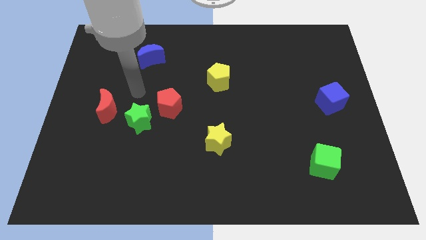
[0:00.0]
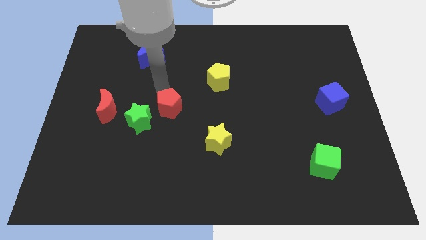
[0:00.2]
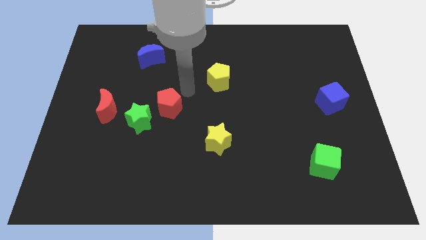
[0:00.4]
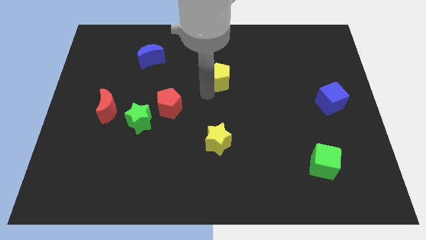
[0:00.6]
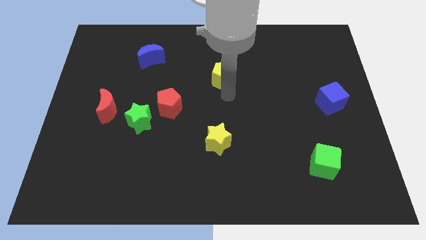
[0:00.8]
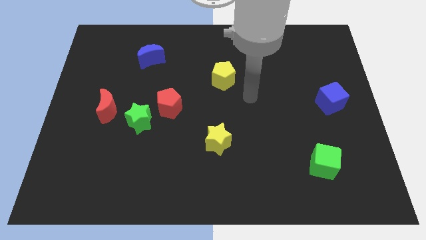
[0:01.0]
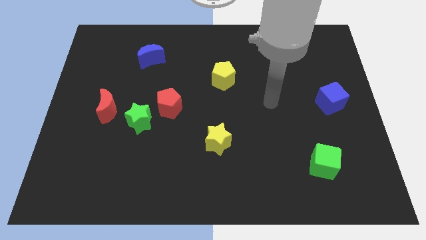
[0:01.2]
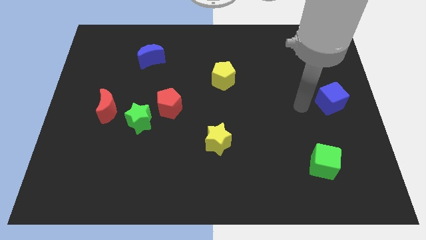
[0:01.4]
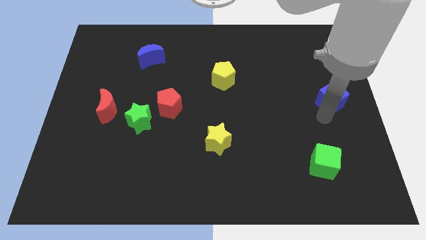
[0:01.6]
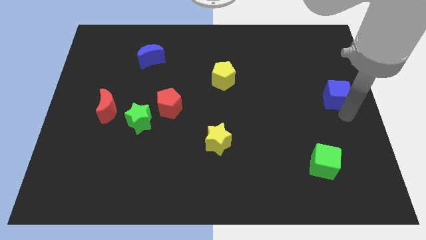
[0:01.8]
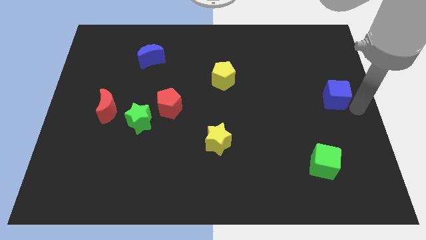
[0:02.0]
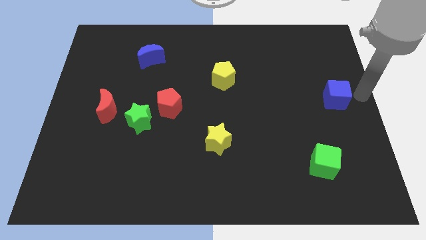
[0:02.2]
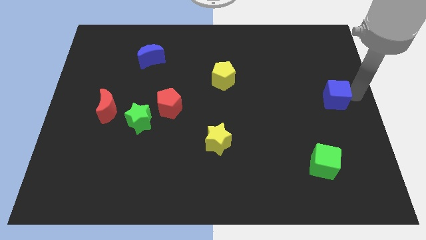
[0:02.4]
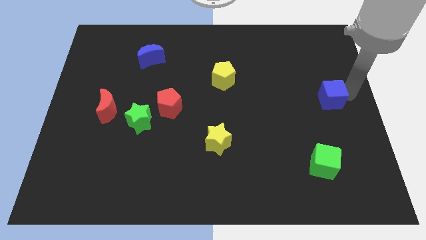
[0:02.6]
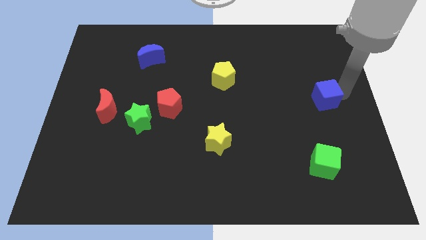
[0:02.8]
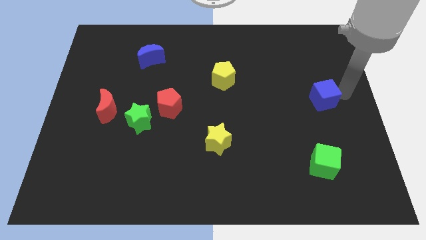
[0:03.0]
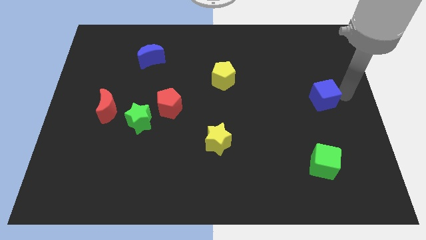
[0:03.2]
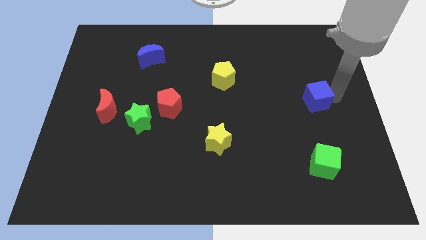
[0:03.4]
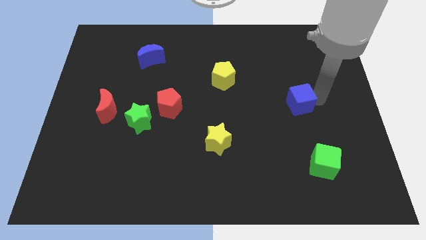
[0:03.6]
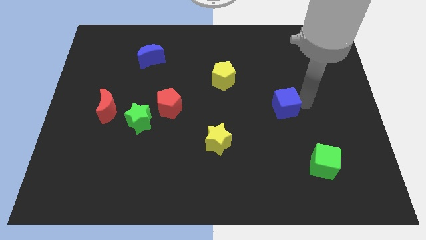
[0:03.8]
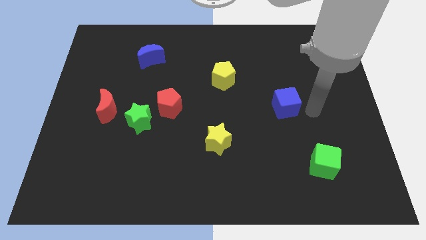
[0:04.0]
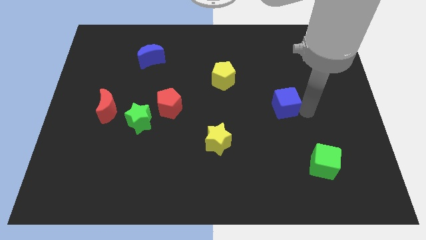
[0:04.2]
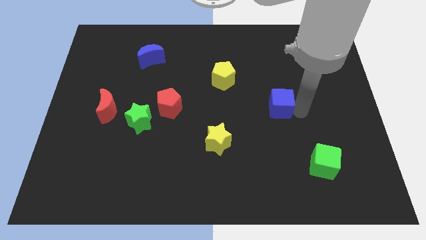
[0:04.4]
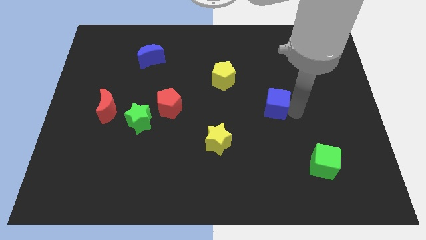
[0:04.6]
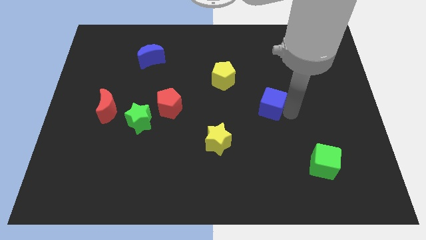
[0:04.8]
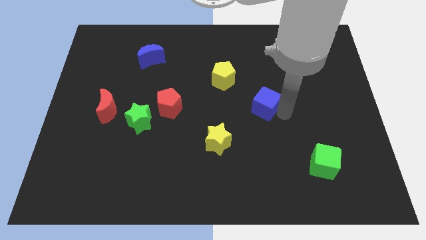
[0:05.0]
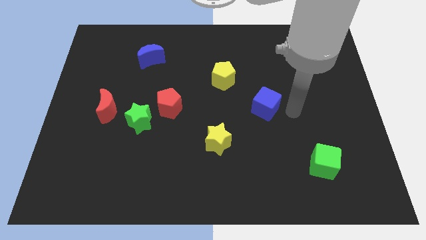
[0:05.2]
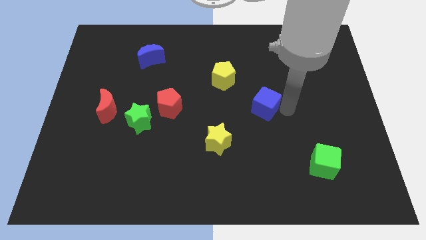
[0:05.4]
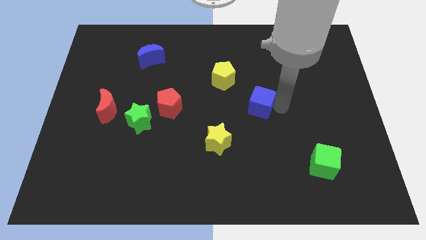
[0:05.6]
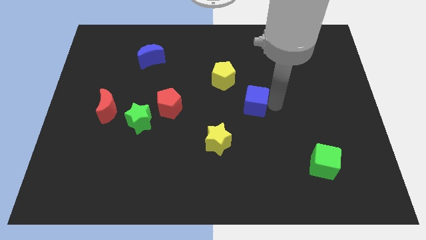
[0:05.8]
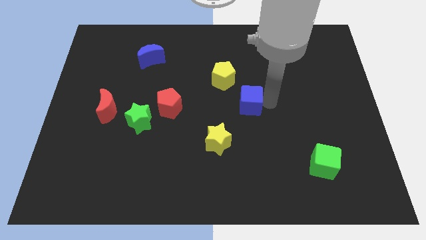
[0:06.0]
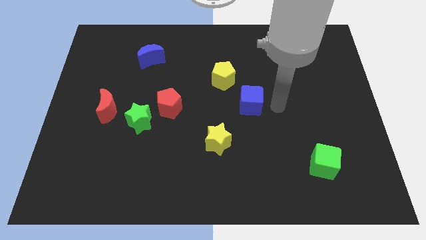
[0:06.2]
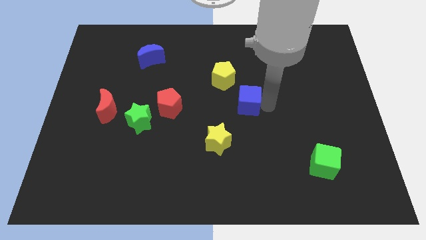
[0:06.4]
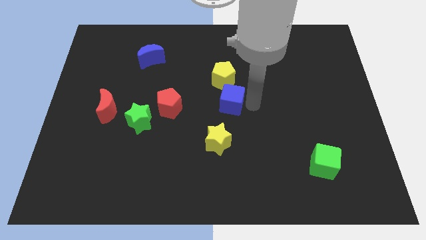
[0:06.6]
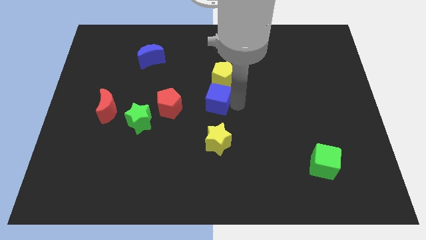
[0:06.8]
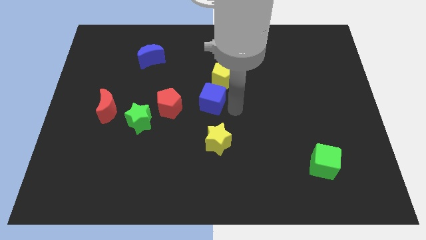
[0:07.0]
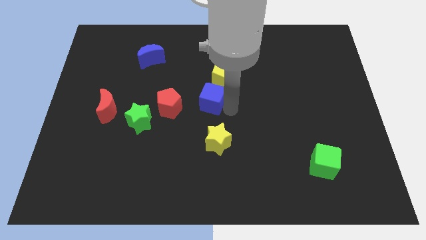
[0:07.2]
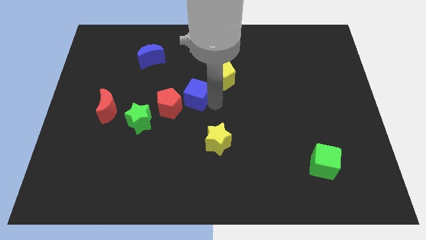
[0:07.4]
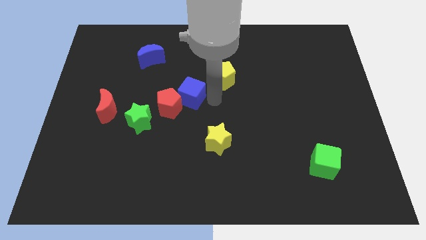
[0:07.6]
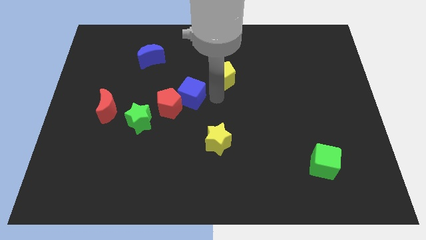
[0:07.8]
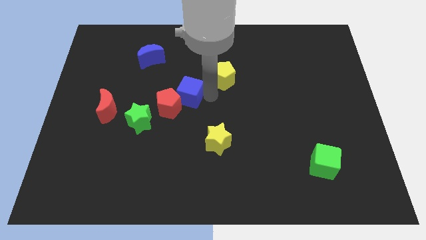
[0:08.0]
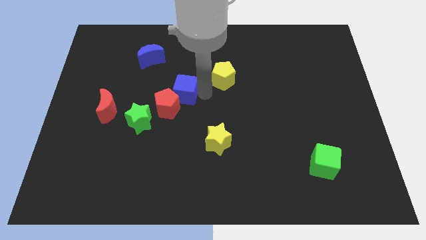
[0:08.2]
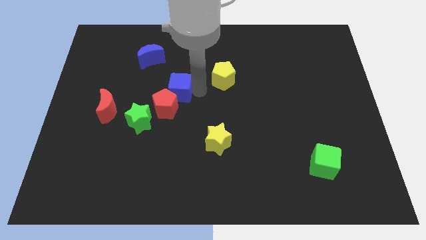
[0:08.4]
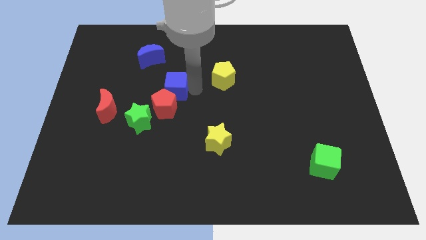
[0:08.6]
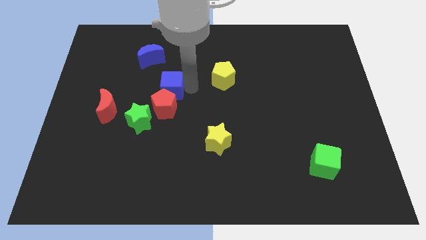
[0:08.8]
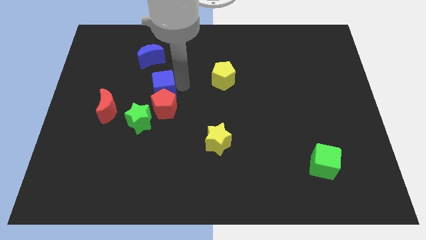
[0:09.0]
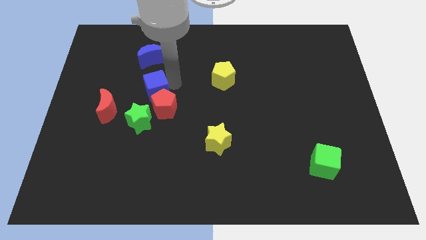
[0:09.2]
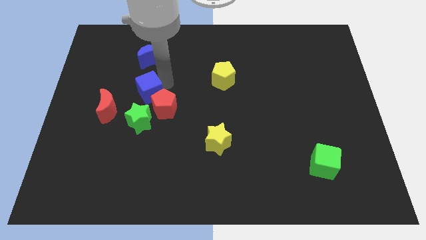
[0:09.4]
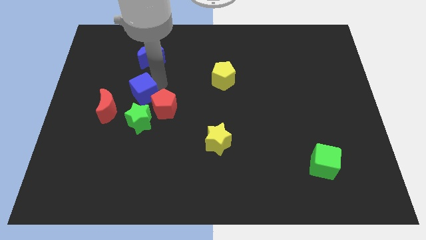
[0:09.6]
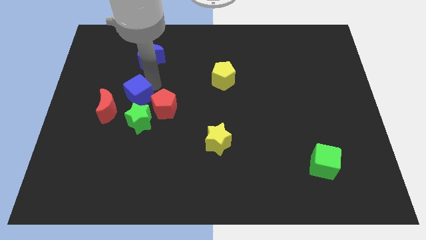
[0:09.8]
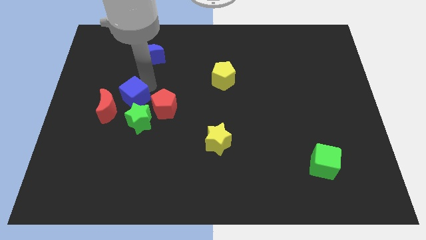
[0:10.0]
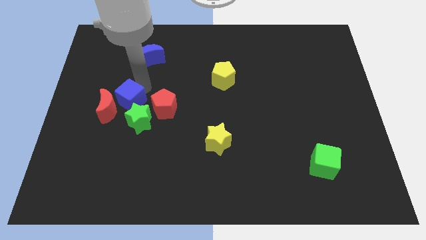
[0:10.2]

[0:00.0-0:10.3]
slide the blue cube close to the red moon

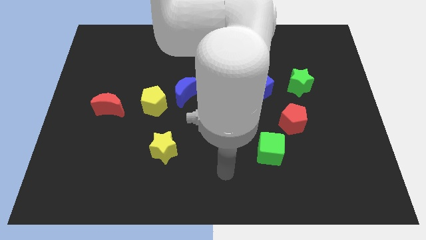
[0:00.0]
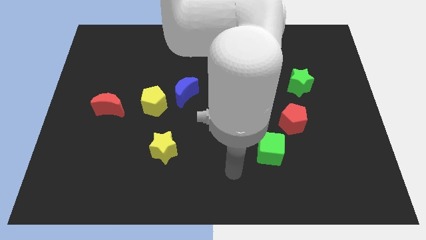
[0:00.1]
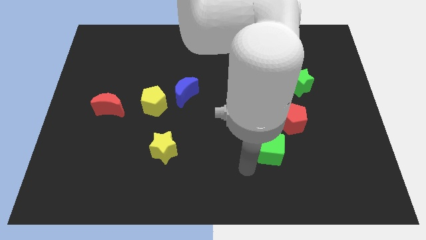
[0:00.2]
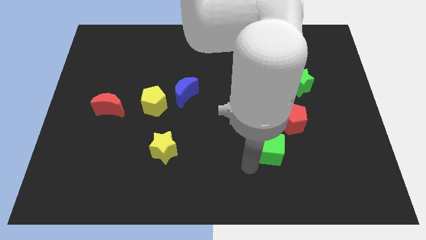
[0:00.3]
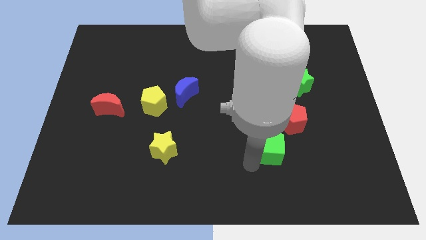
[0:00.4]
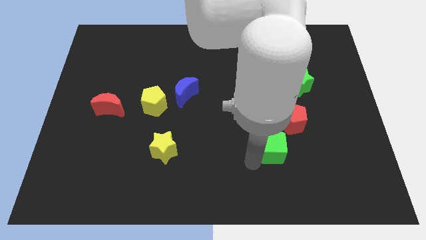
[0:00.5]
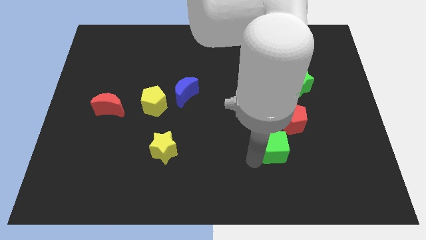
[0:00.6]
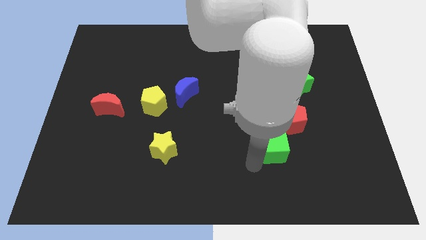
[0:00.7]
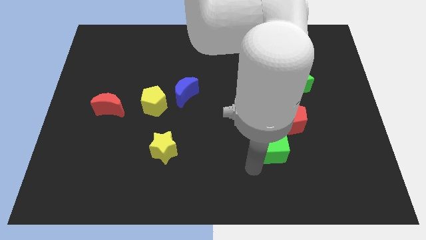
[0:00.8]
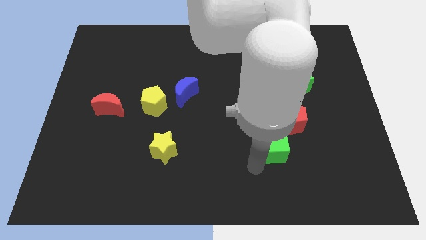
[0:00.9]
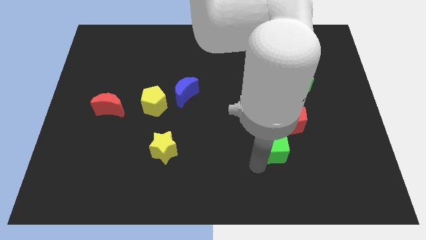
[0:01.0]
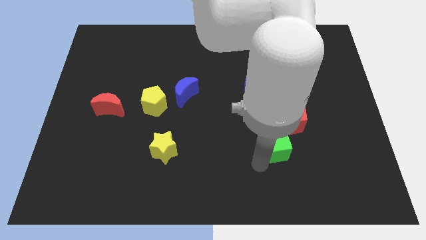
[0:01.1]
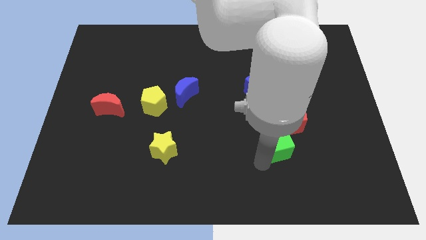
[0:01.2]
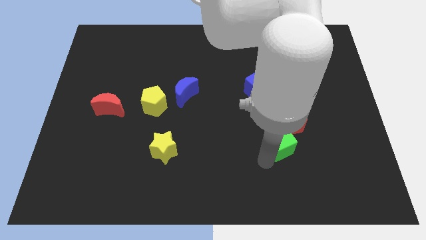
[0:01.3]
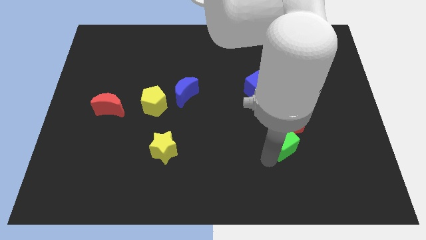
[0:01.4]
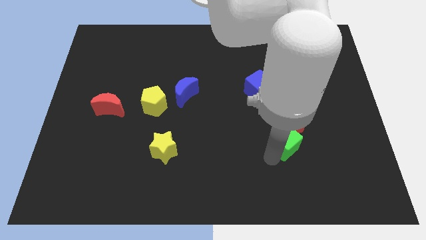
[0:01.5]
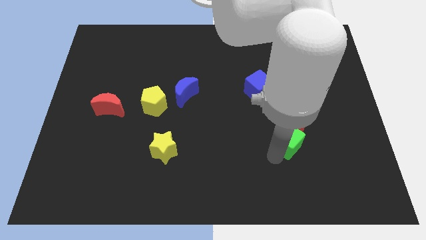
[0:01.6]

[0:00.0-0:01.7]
move the green cube towards the red pentagon
